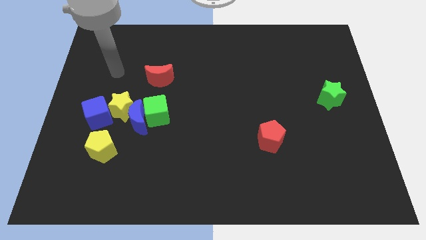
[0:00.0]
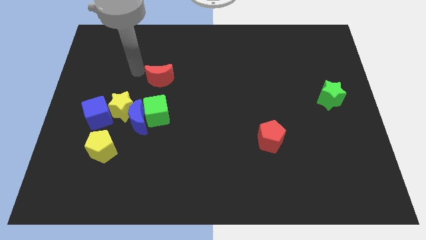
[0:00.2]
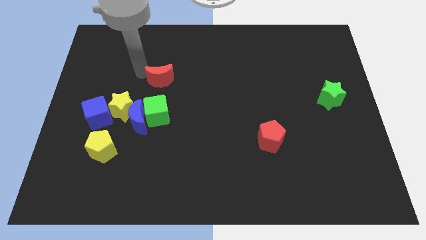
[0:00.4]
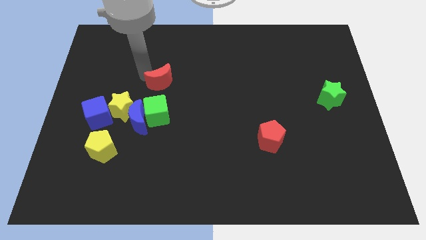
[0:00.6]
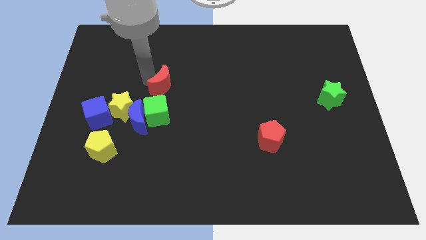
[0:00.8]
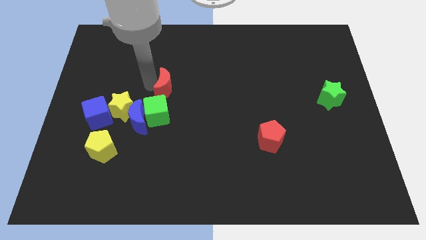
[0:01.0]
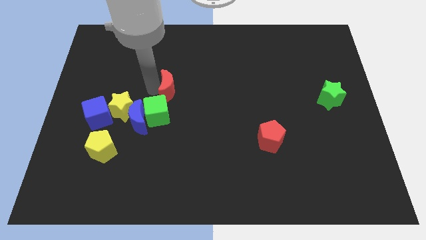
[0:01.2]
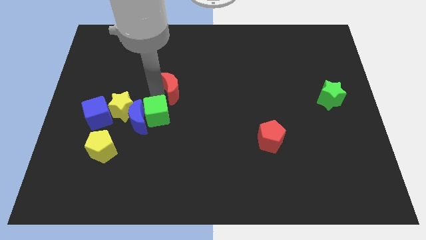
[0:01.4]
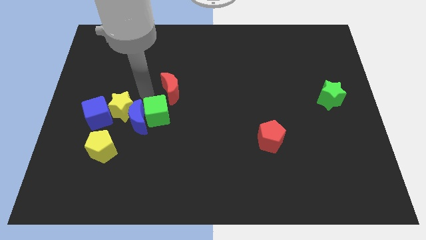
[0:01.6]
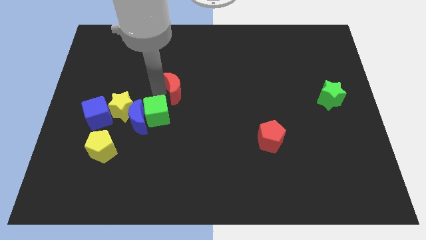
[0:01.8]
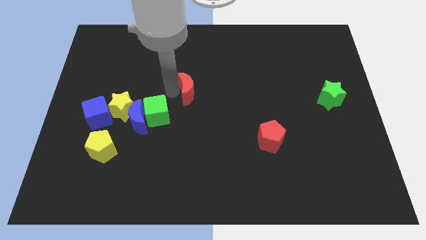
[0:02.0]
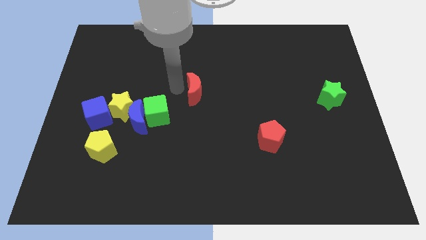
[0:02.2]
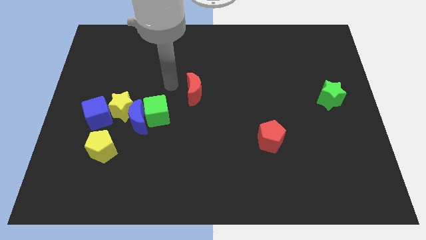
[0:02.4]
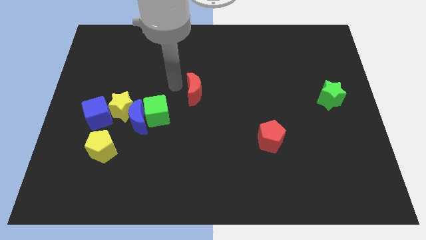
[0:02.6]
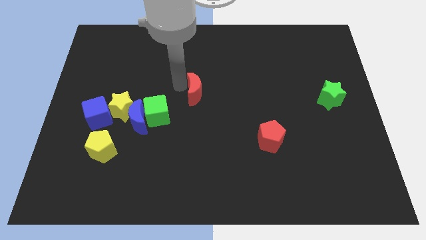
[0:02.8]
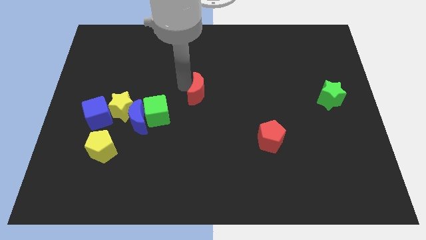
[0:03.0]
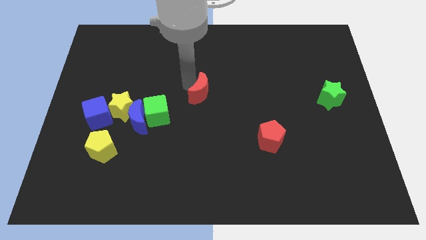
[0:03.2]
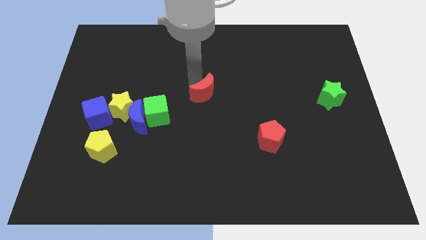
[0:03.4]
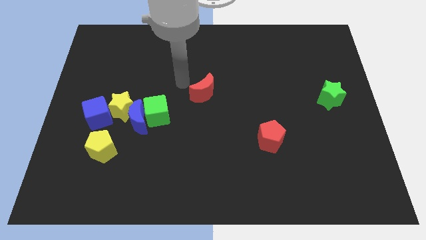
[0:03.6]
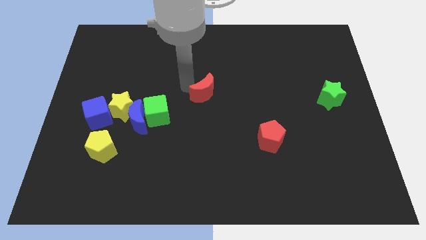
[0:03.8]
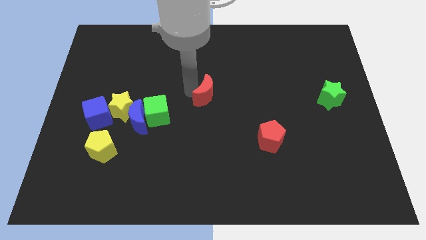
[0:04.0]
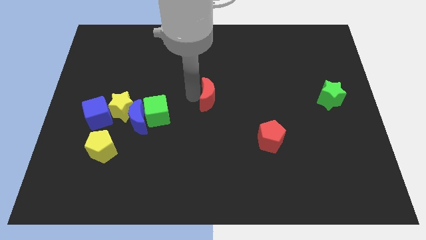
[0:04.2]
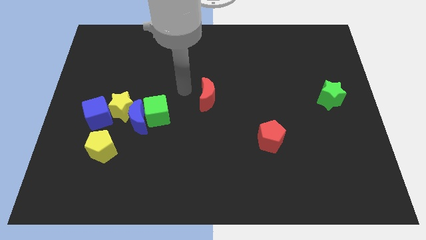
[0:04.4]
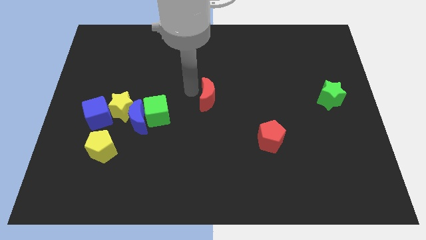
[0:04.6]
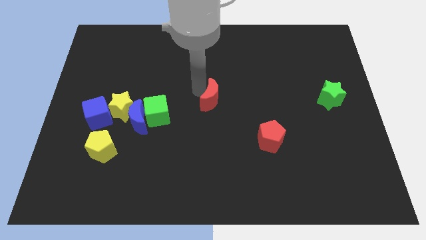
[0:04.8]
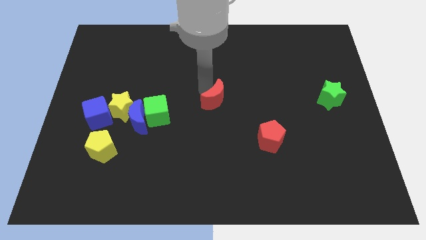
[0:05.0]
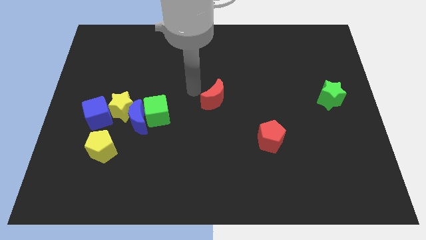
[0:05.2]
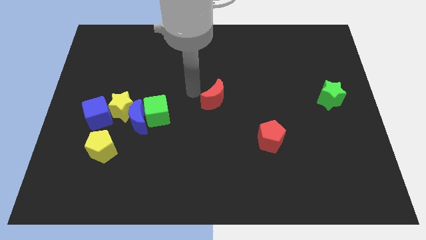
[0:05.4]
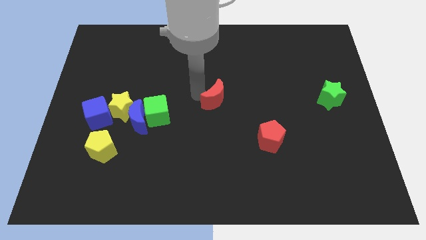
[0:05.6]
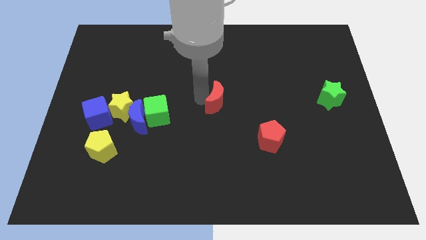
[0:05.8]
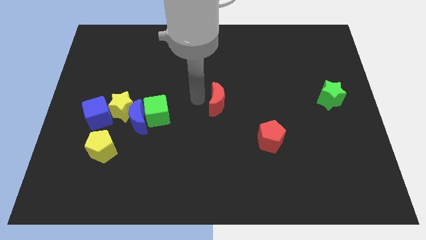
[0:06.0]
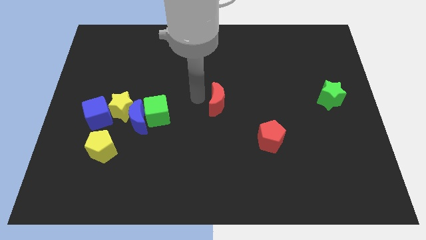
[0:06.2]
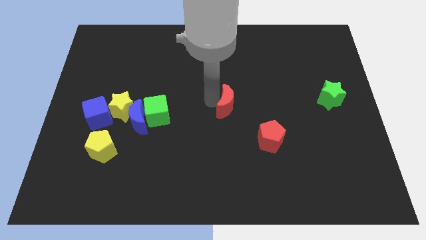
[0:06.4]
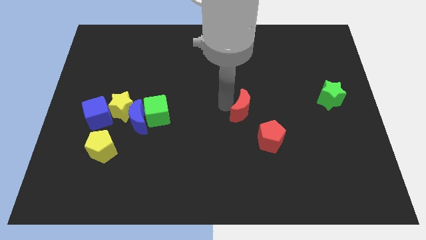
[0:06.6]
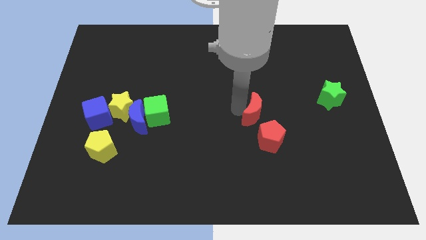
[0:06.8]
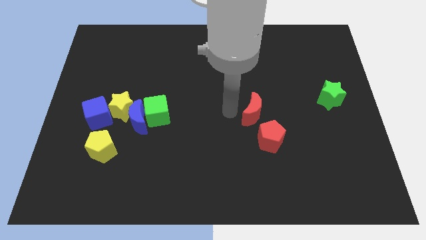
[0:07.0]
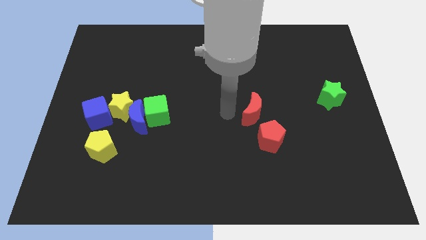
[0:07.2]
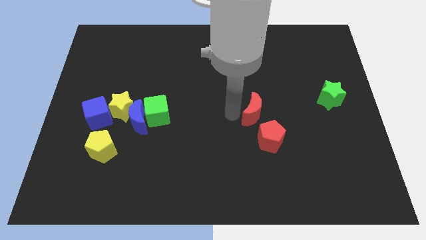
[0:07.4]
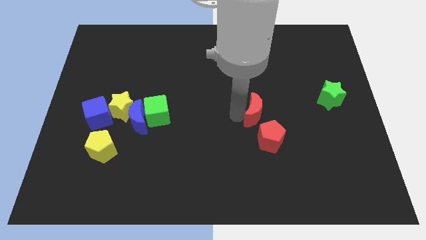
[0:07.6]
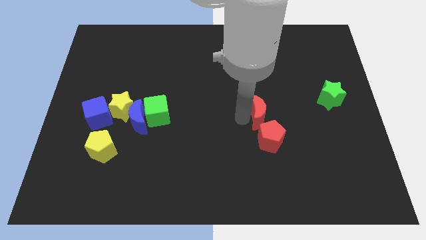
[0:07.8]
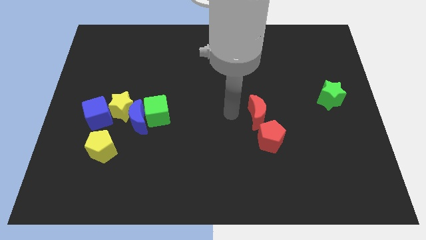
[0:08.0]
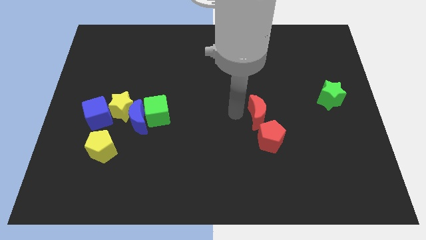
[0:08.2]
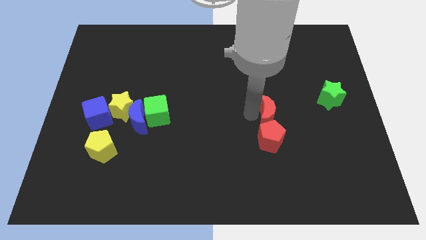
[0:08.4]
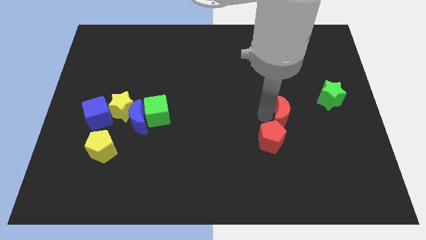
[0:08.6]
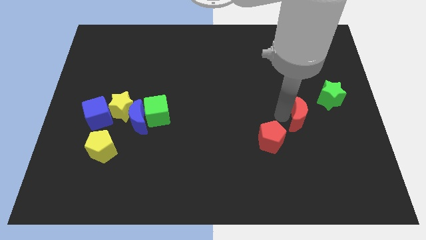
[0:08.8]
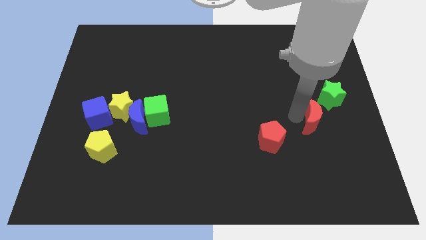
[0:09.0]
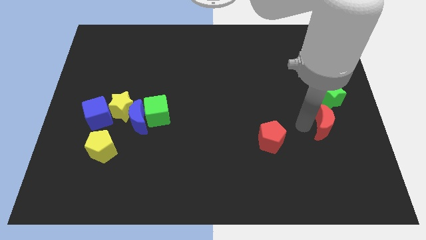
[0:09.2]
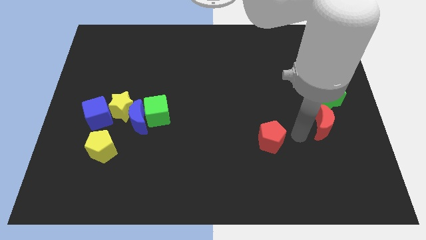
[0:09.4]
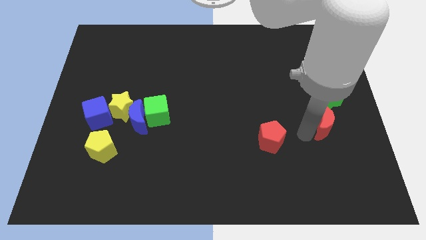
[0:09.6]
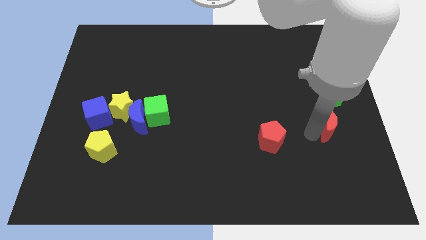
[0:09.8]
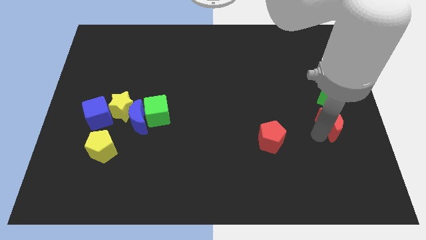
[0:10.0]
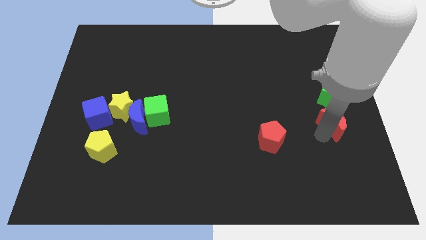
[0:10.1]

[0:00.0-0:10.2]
move the red moon to the right side of the board

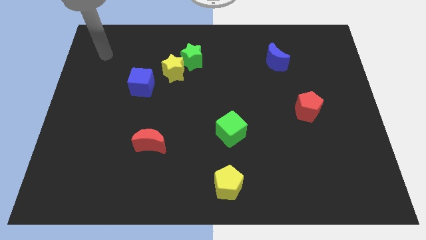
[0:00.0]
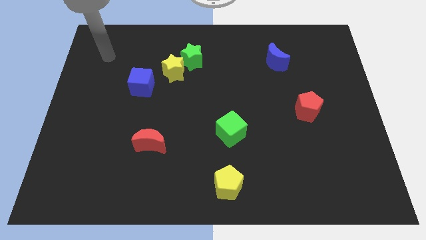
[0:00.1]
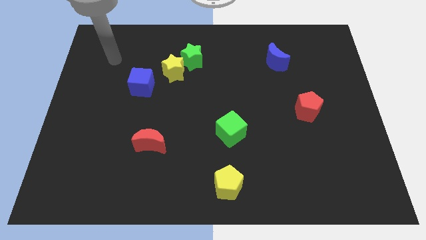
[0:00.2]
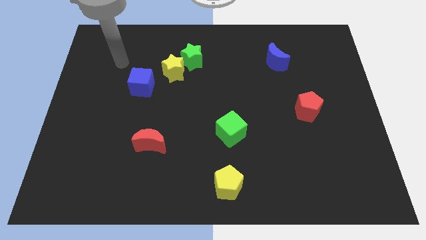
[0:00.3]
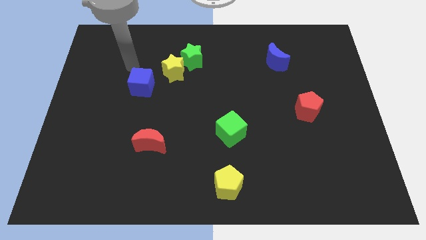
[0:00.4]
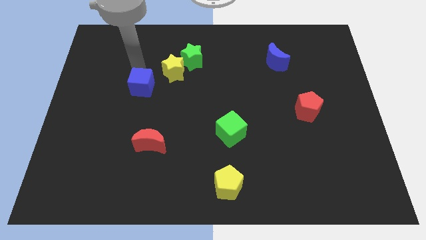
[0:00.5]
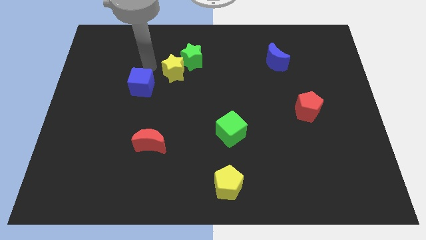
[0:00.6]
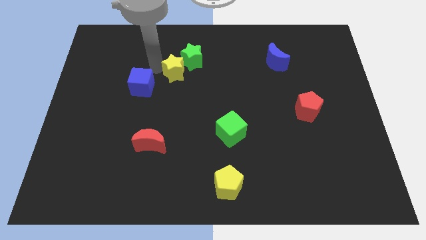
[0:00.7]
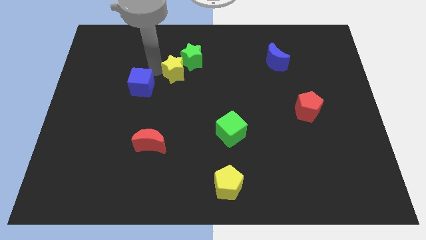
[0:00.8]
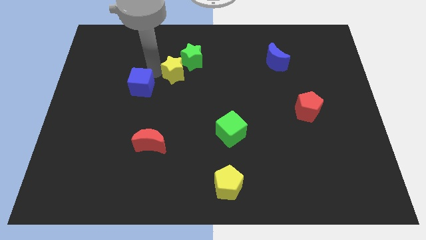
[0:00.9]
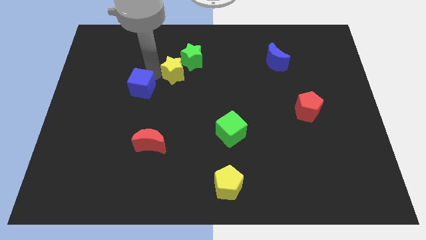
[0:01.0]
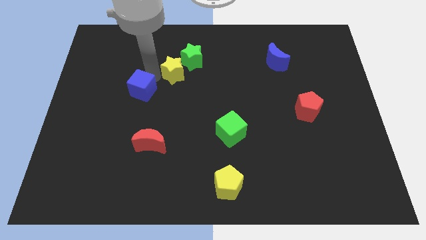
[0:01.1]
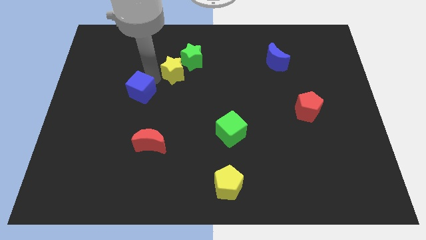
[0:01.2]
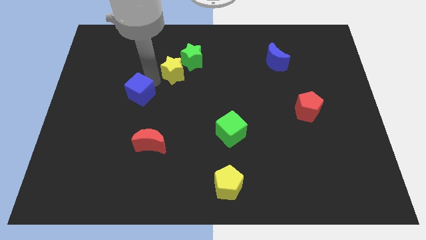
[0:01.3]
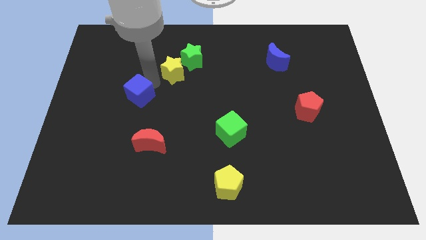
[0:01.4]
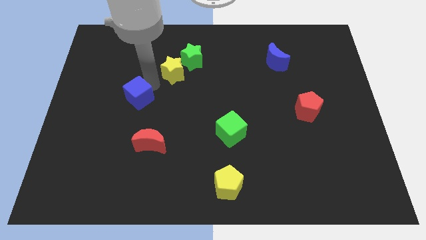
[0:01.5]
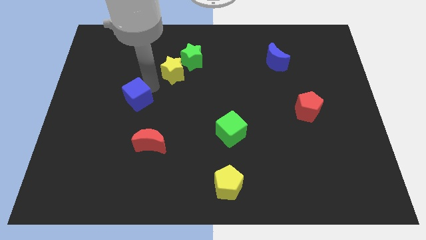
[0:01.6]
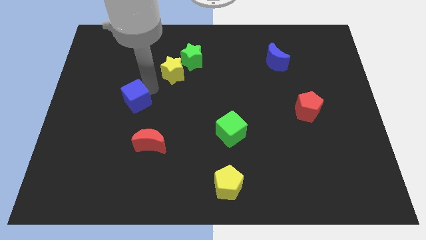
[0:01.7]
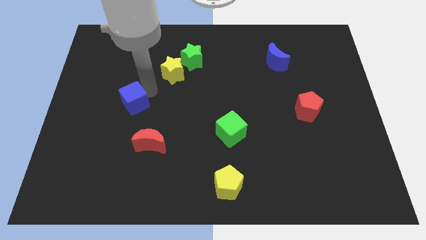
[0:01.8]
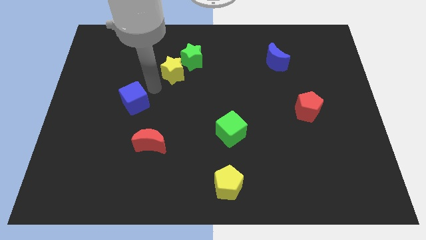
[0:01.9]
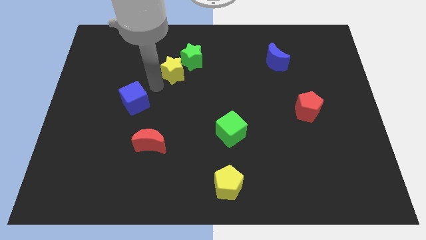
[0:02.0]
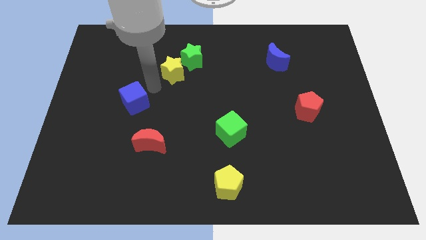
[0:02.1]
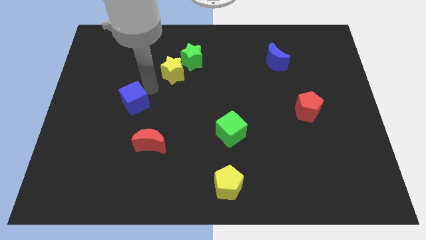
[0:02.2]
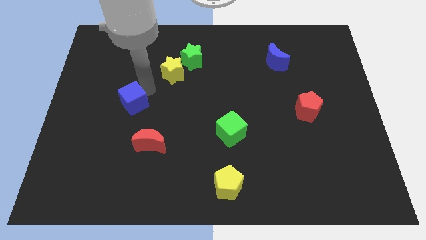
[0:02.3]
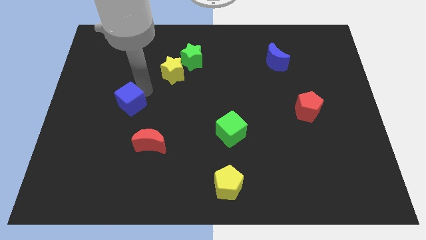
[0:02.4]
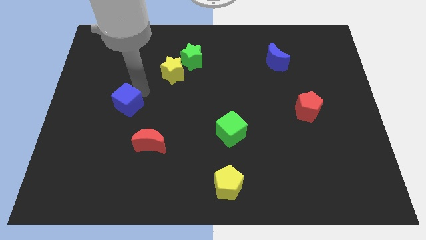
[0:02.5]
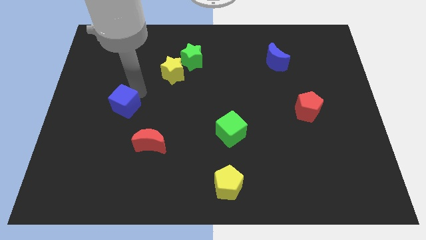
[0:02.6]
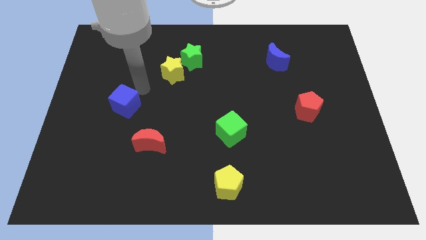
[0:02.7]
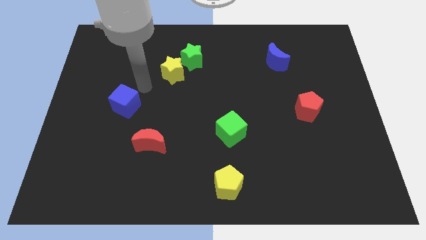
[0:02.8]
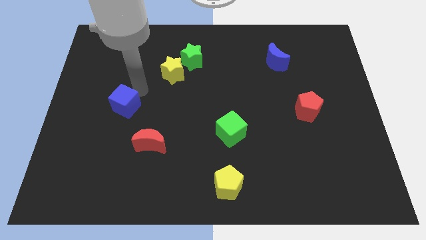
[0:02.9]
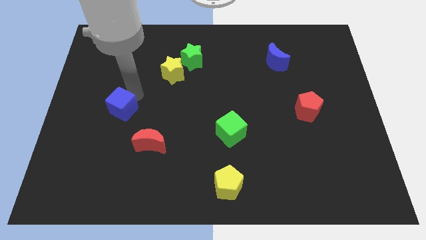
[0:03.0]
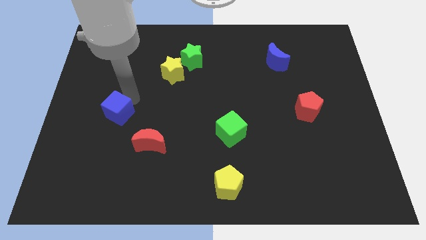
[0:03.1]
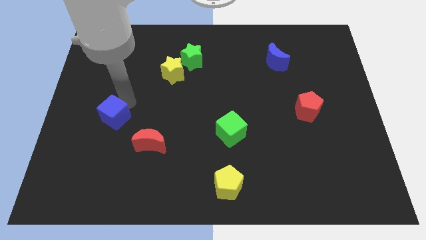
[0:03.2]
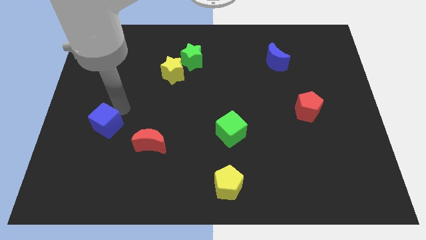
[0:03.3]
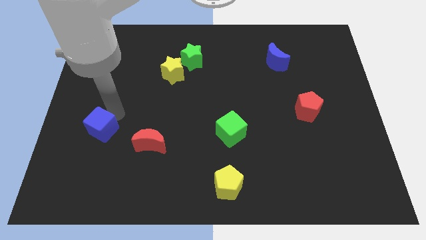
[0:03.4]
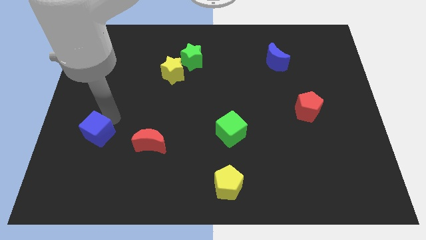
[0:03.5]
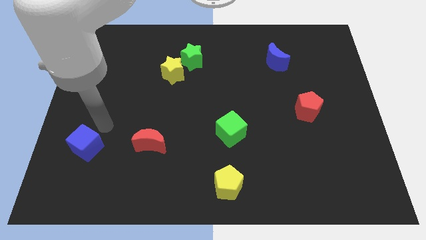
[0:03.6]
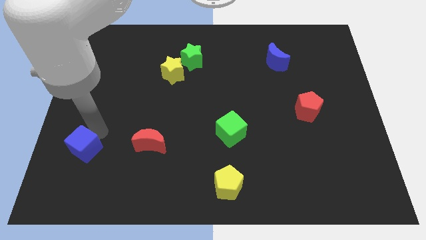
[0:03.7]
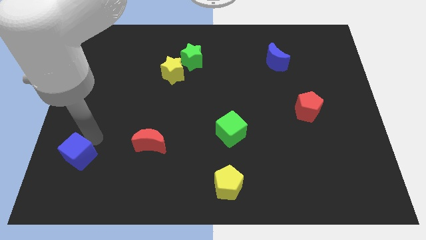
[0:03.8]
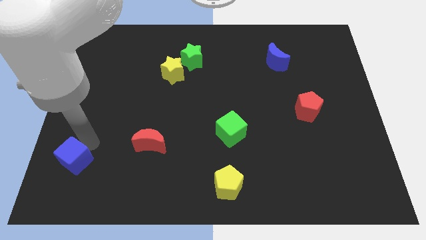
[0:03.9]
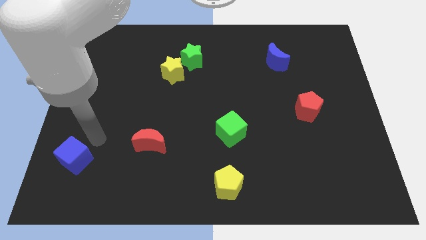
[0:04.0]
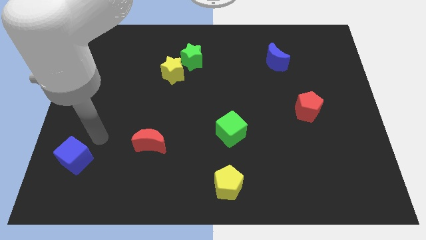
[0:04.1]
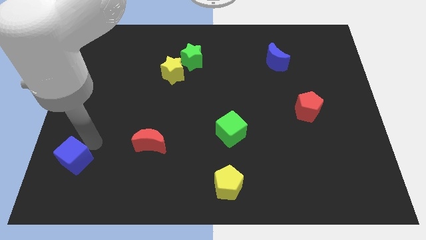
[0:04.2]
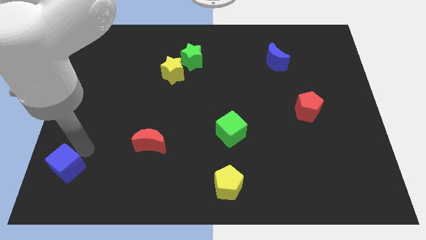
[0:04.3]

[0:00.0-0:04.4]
slide the blue cube to the lower left corner
